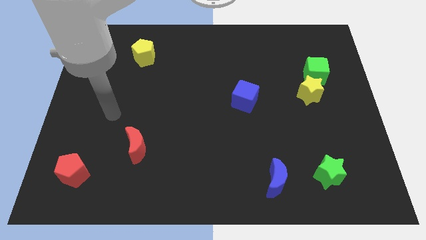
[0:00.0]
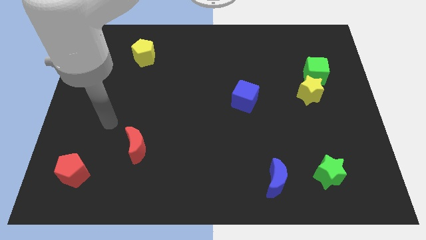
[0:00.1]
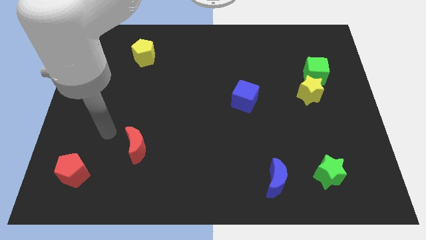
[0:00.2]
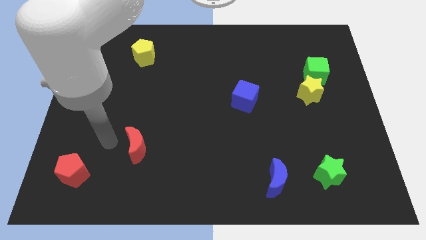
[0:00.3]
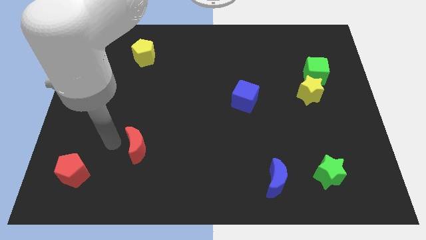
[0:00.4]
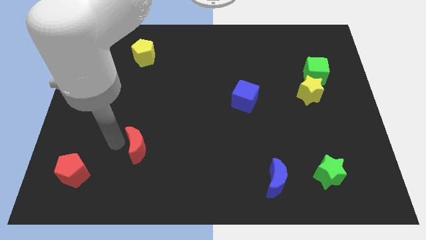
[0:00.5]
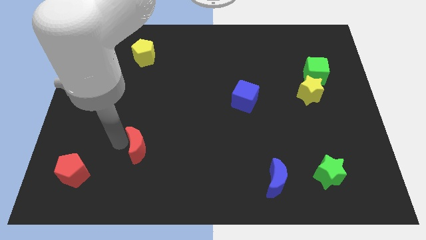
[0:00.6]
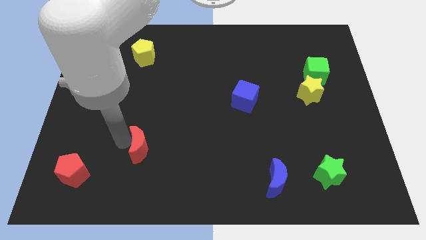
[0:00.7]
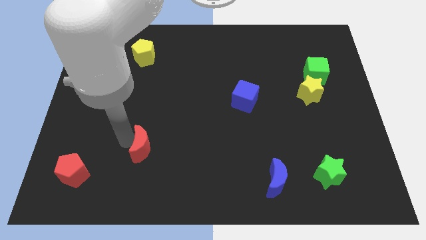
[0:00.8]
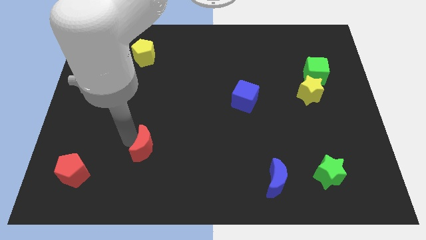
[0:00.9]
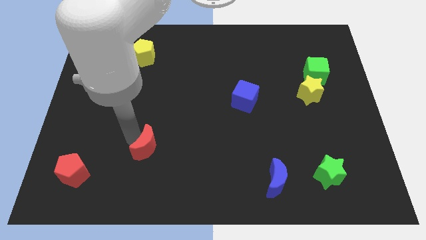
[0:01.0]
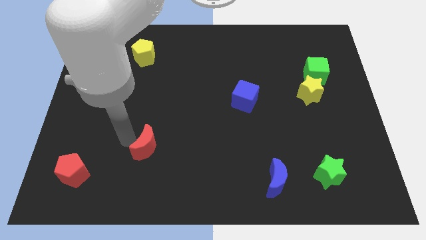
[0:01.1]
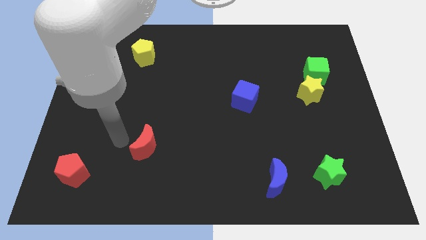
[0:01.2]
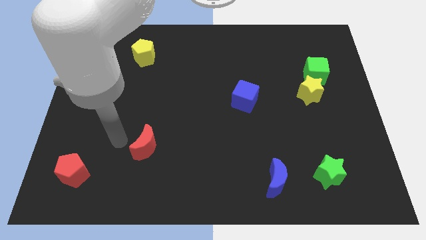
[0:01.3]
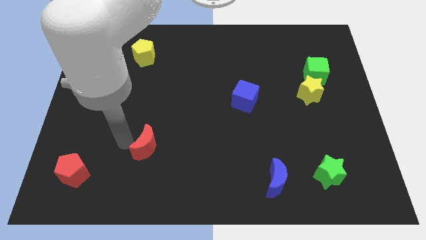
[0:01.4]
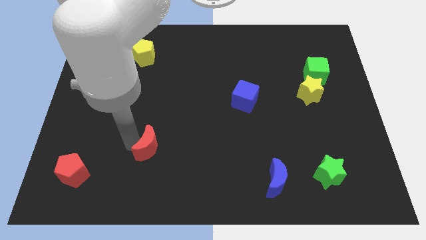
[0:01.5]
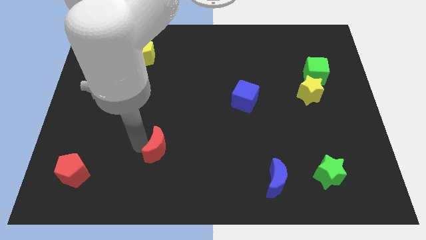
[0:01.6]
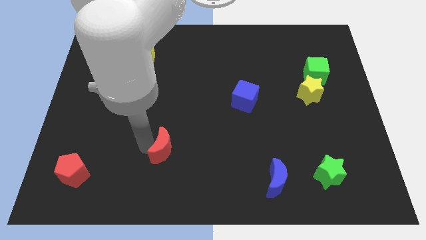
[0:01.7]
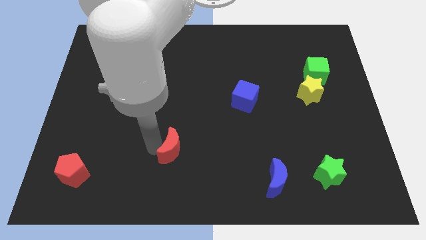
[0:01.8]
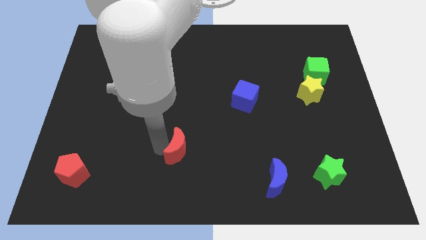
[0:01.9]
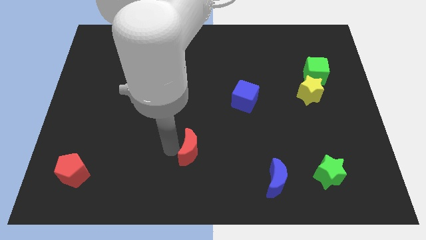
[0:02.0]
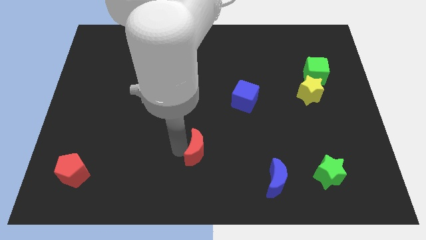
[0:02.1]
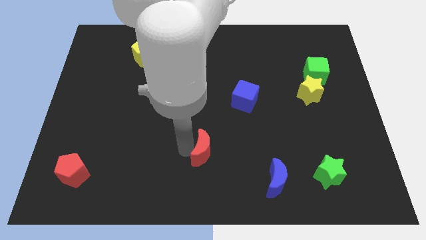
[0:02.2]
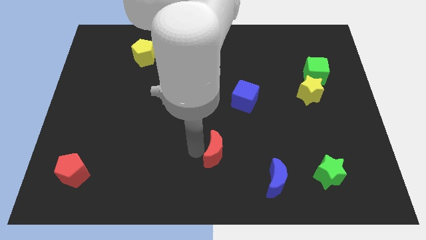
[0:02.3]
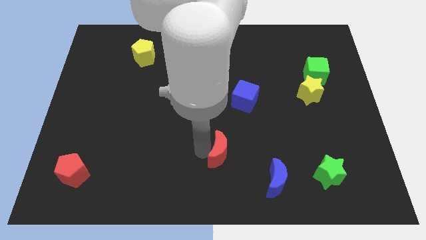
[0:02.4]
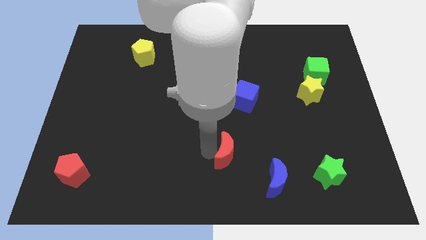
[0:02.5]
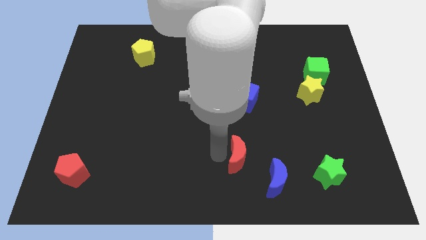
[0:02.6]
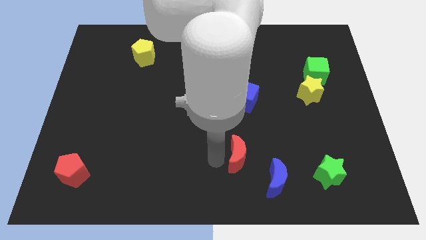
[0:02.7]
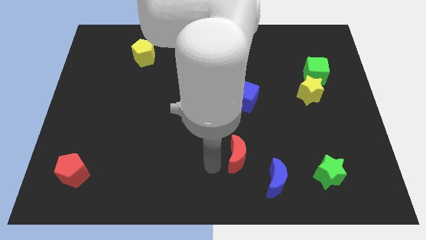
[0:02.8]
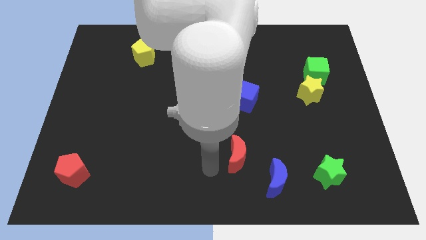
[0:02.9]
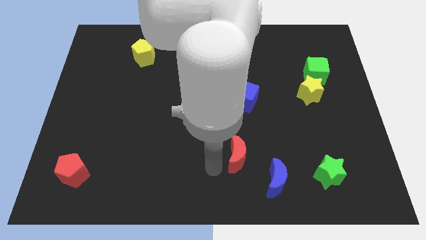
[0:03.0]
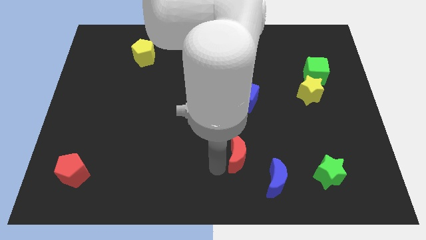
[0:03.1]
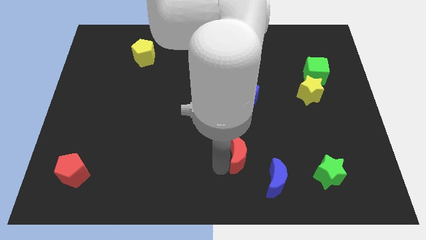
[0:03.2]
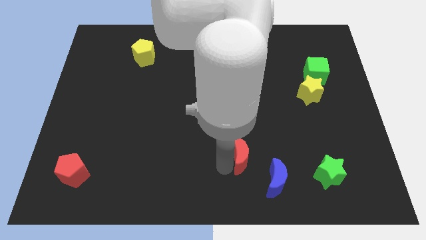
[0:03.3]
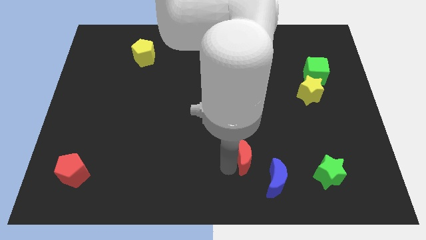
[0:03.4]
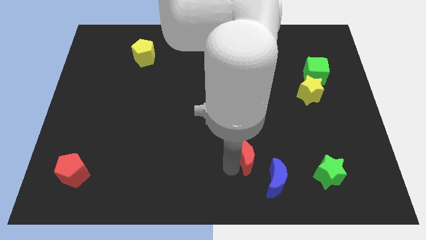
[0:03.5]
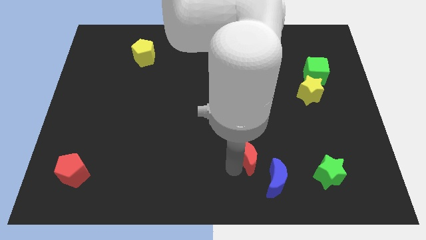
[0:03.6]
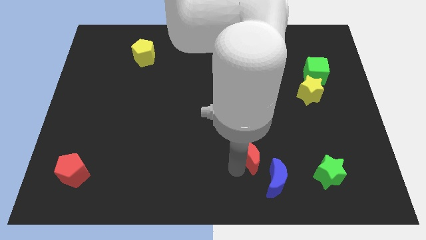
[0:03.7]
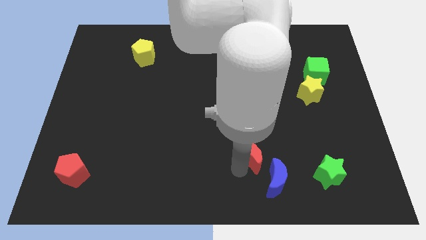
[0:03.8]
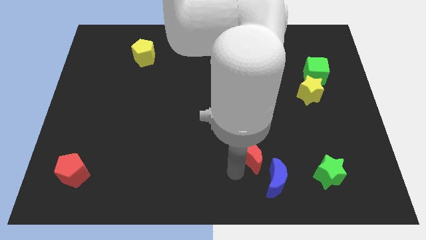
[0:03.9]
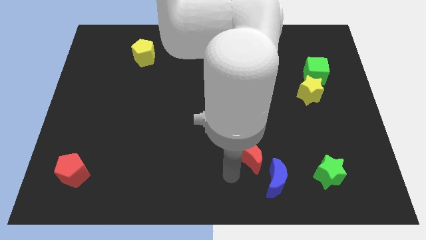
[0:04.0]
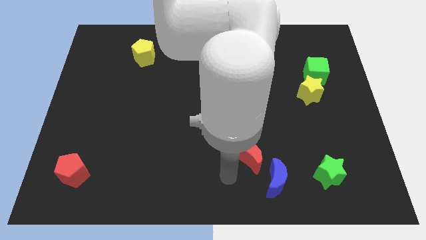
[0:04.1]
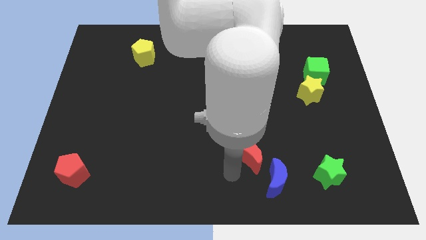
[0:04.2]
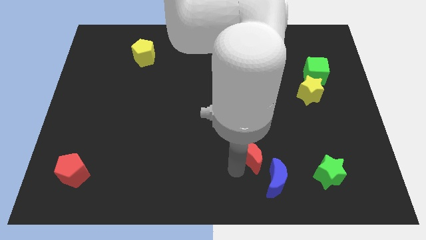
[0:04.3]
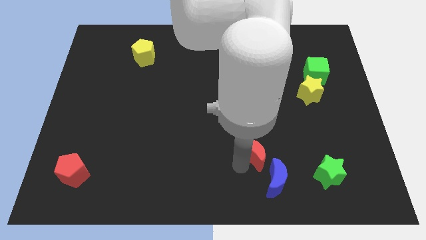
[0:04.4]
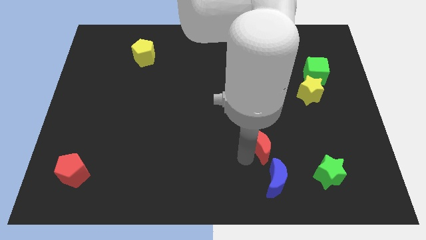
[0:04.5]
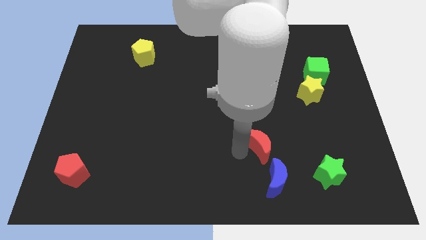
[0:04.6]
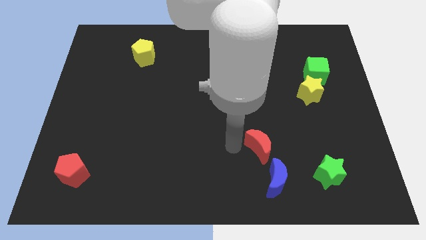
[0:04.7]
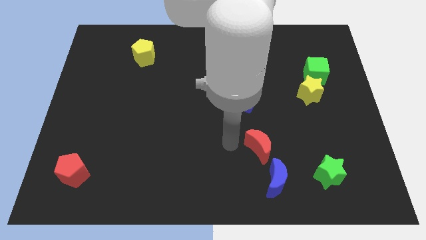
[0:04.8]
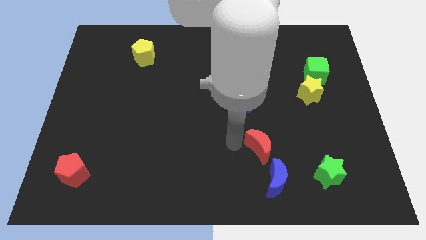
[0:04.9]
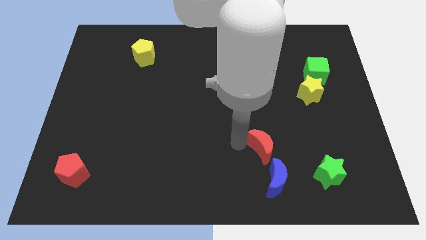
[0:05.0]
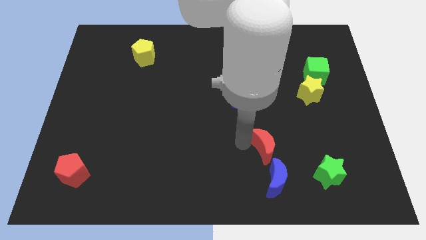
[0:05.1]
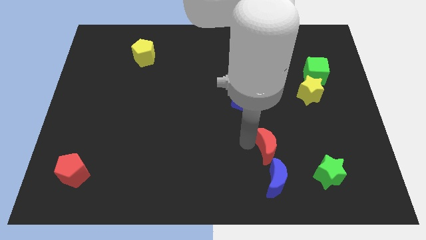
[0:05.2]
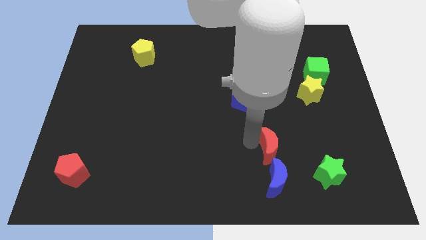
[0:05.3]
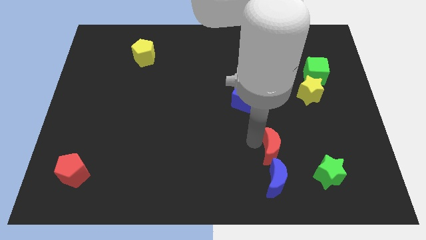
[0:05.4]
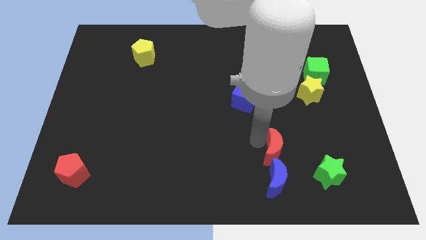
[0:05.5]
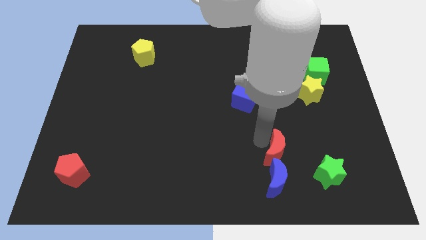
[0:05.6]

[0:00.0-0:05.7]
put the red moon to the top left of the green star

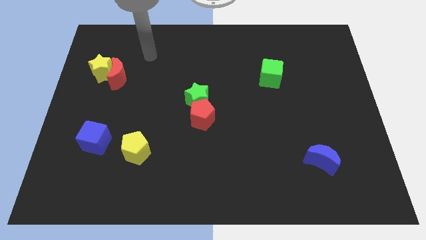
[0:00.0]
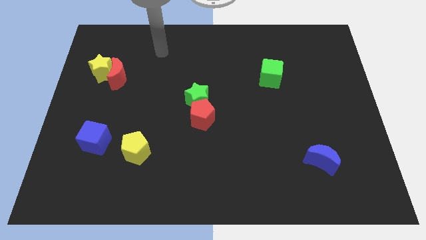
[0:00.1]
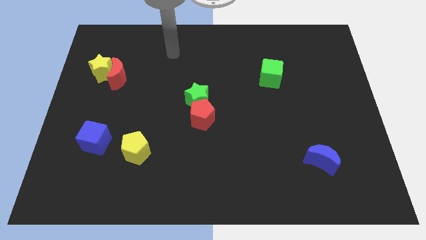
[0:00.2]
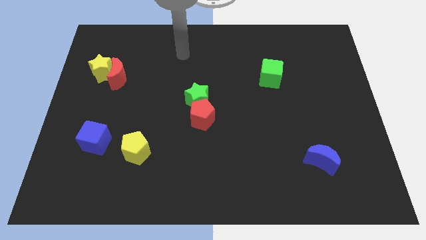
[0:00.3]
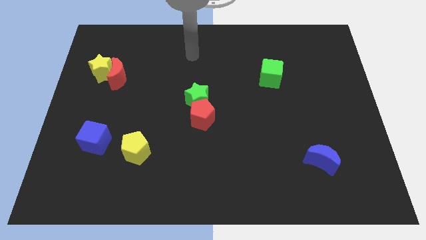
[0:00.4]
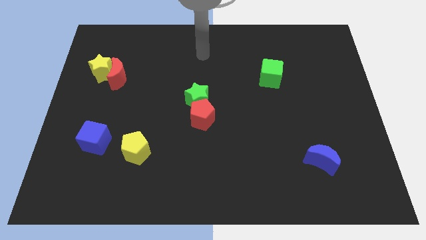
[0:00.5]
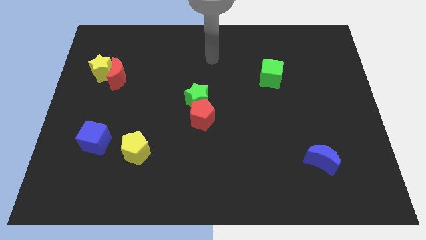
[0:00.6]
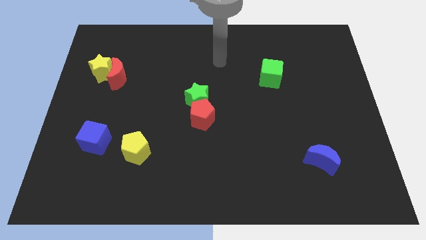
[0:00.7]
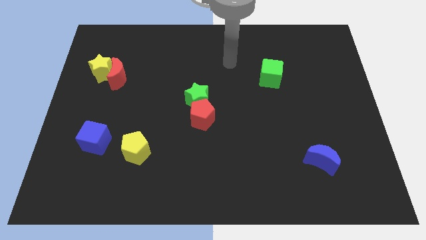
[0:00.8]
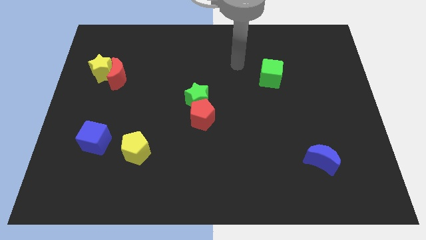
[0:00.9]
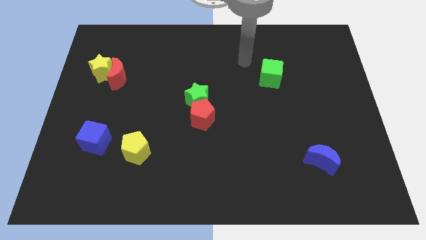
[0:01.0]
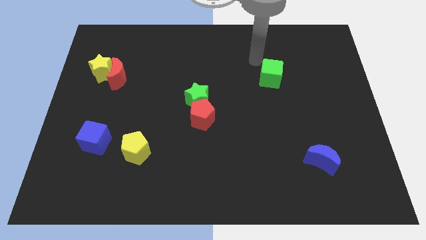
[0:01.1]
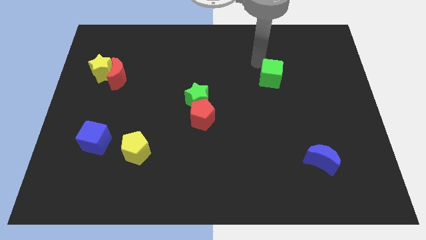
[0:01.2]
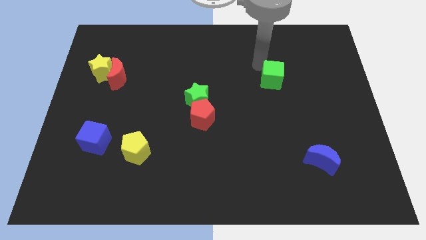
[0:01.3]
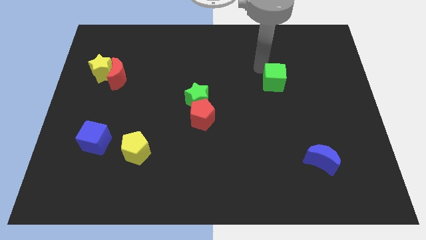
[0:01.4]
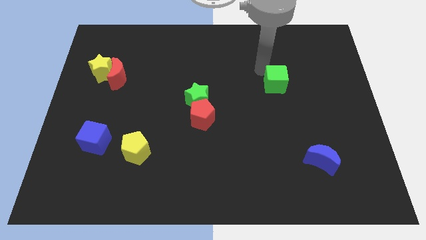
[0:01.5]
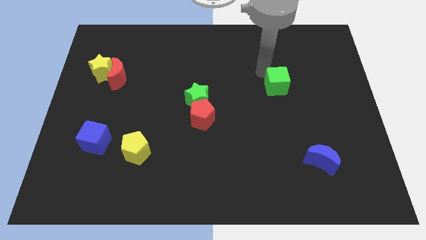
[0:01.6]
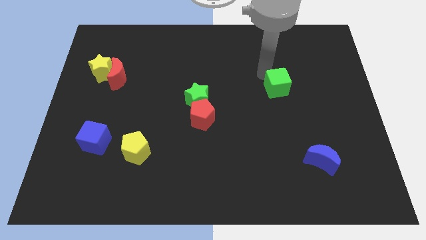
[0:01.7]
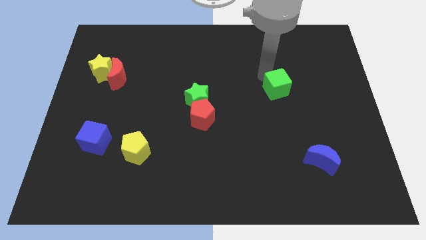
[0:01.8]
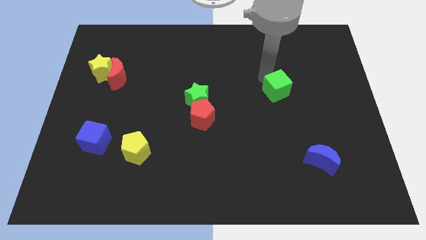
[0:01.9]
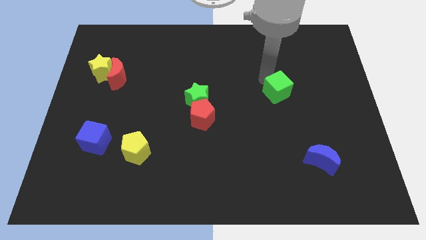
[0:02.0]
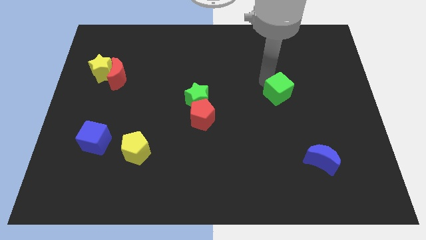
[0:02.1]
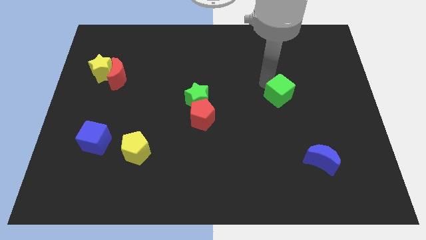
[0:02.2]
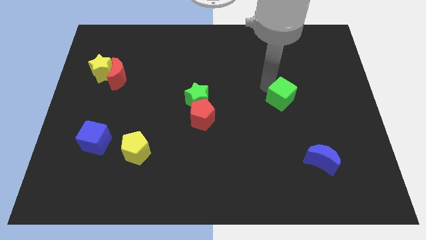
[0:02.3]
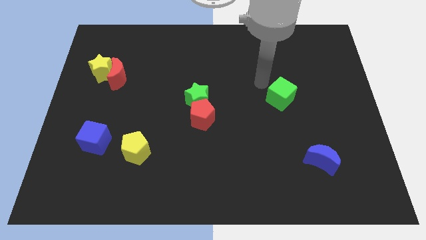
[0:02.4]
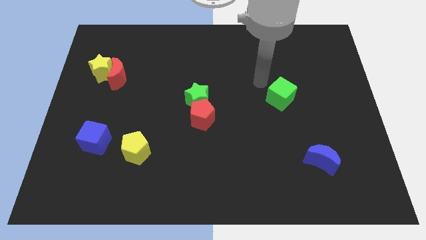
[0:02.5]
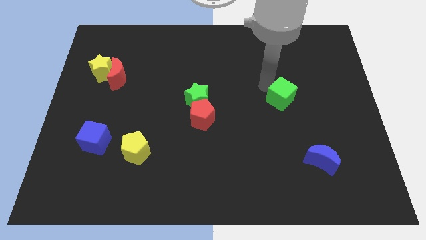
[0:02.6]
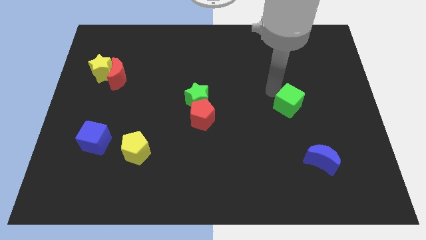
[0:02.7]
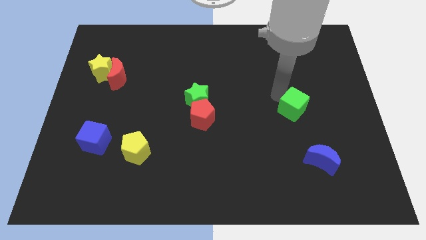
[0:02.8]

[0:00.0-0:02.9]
slide the green cube above the blue moon
